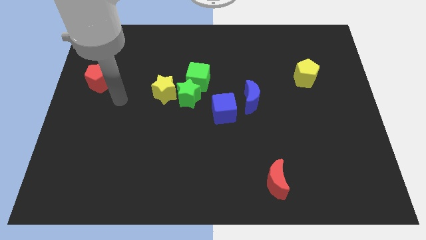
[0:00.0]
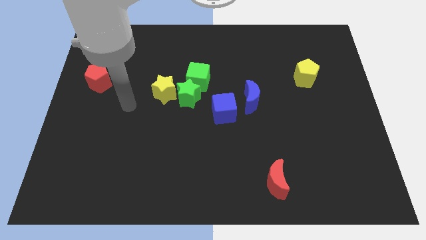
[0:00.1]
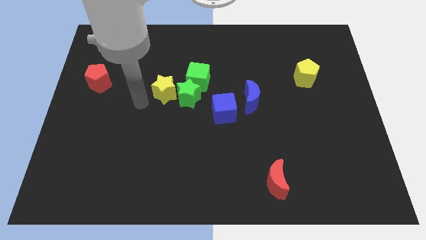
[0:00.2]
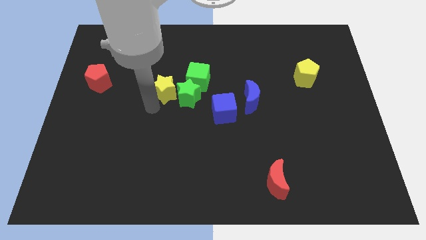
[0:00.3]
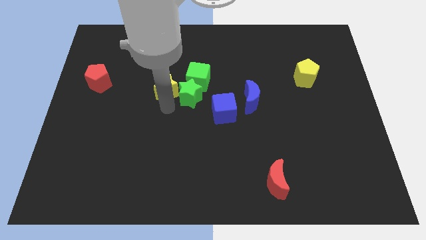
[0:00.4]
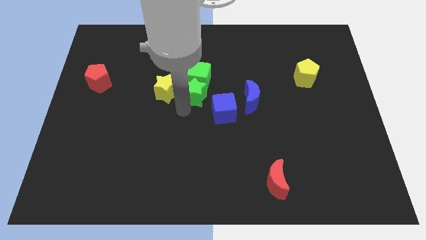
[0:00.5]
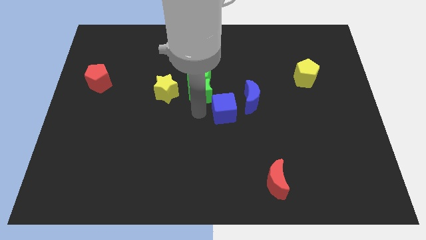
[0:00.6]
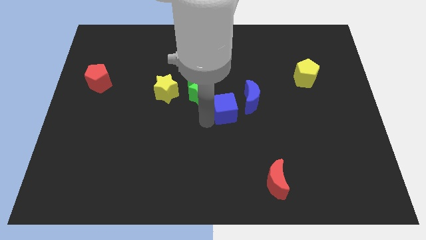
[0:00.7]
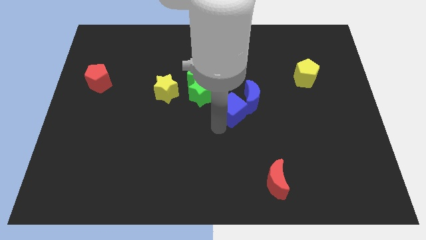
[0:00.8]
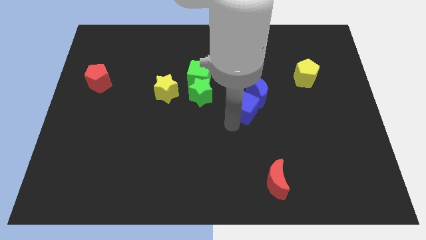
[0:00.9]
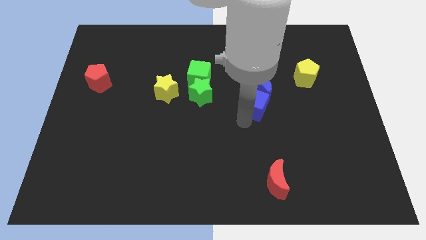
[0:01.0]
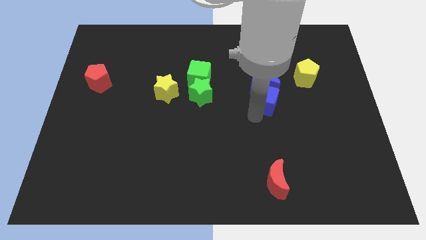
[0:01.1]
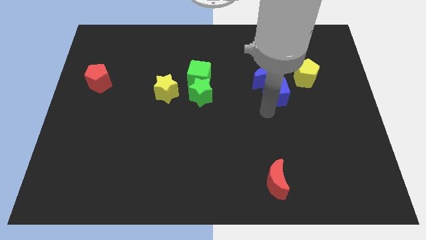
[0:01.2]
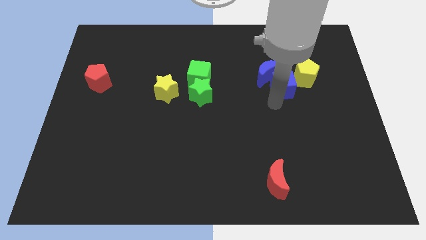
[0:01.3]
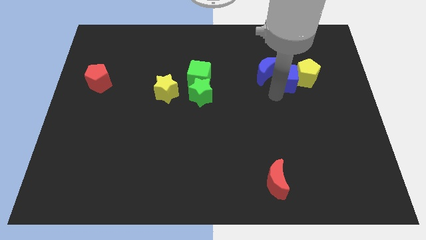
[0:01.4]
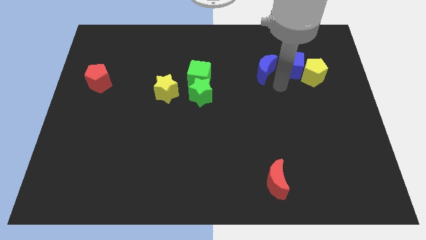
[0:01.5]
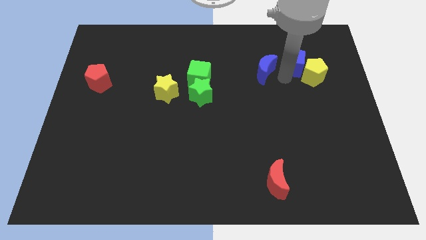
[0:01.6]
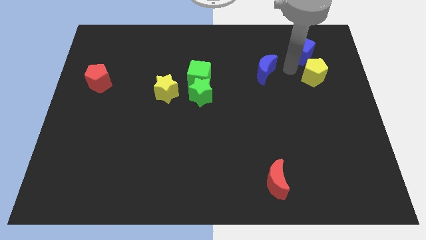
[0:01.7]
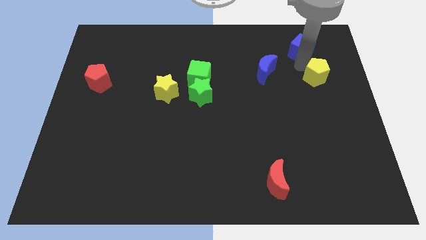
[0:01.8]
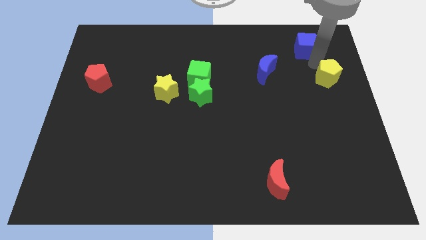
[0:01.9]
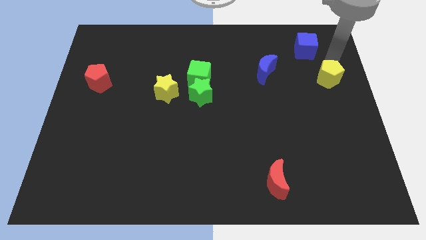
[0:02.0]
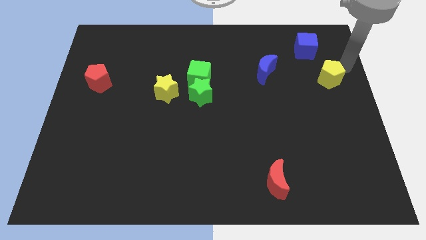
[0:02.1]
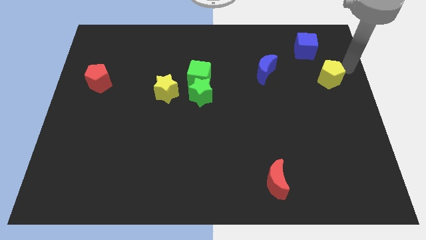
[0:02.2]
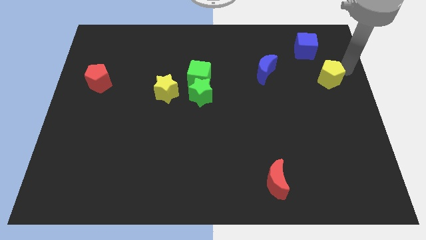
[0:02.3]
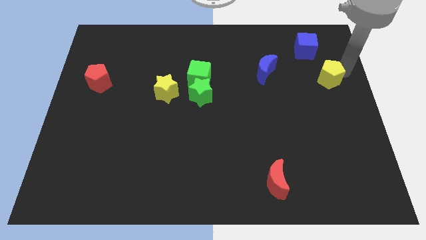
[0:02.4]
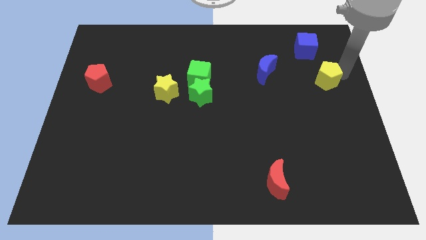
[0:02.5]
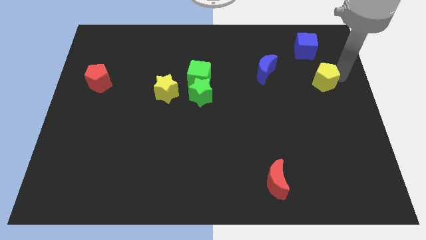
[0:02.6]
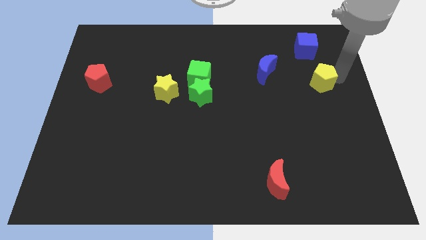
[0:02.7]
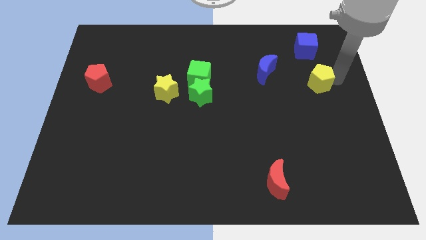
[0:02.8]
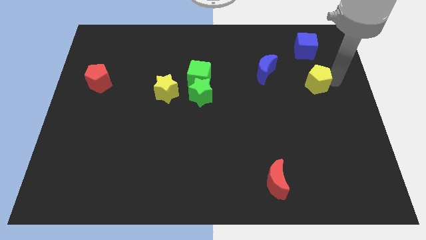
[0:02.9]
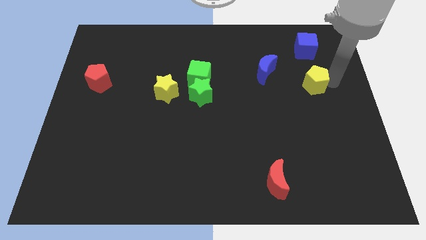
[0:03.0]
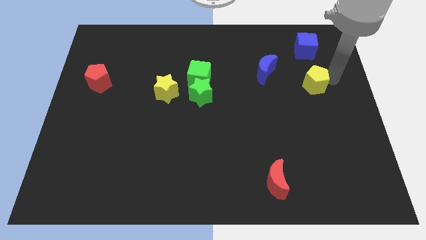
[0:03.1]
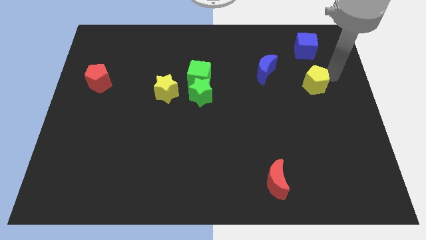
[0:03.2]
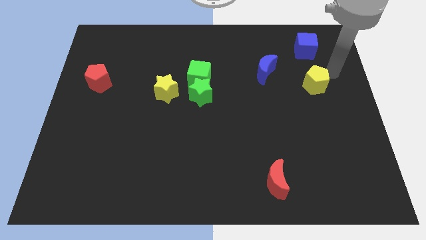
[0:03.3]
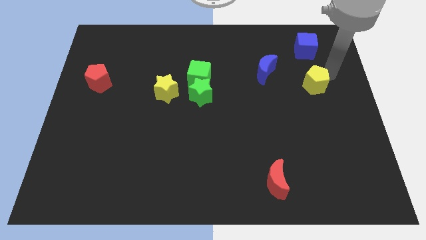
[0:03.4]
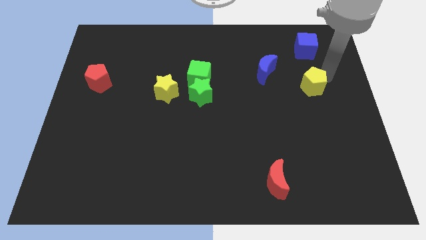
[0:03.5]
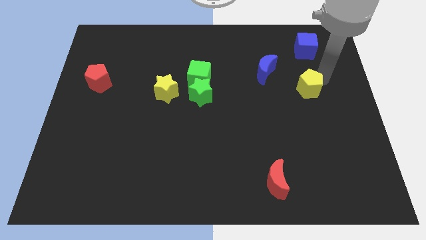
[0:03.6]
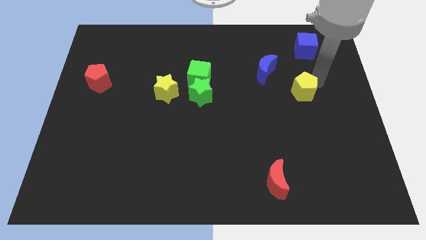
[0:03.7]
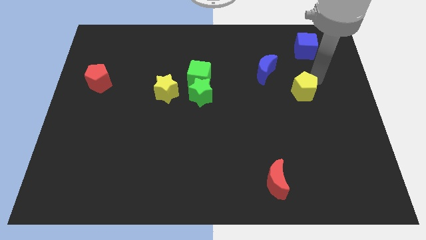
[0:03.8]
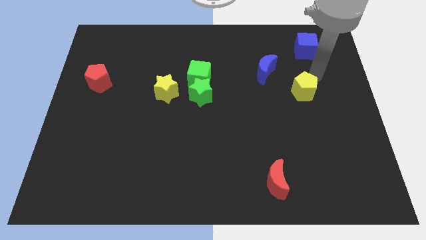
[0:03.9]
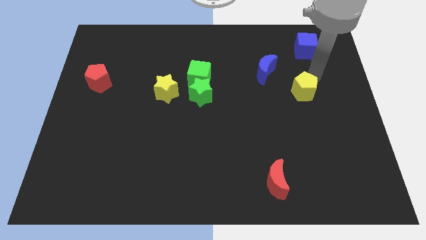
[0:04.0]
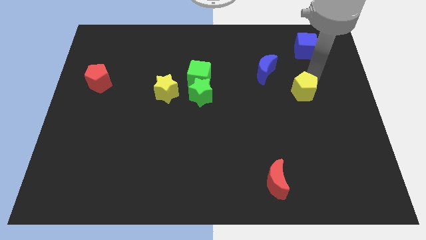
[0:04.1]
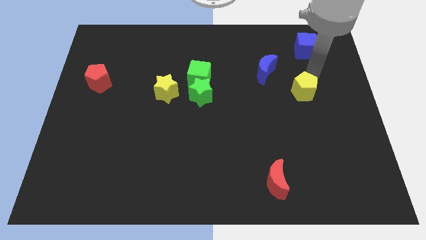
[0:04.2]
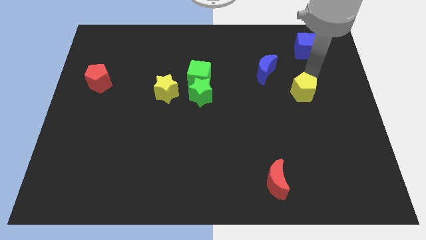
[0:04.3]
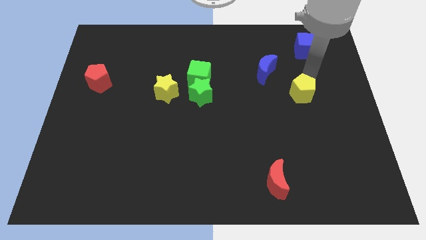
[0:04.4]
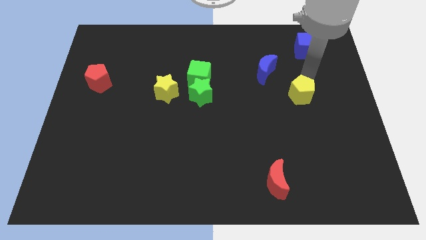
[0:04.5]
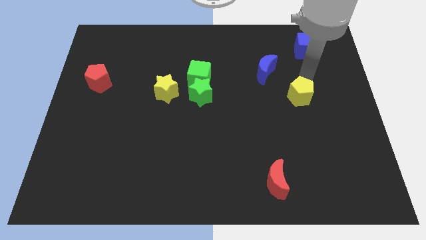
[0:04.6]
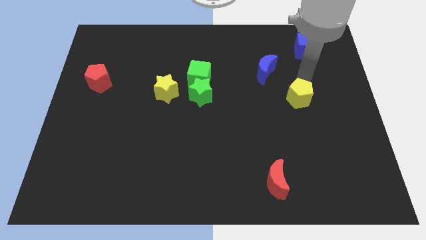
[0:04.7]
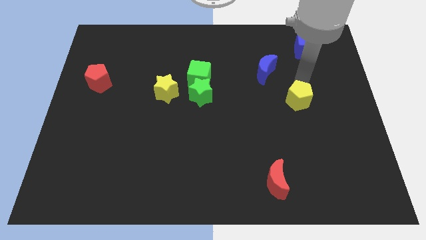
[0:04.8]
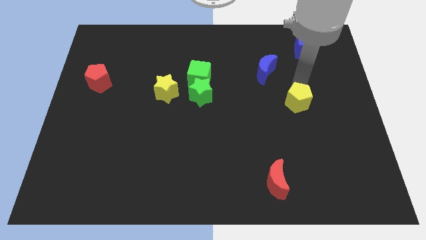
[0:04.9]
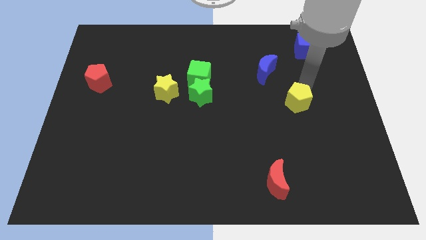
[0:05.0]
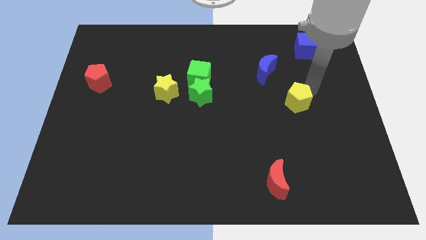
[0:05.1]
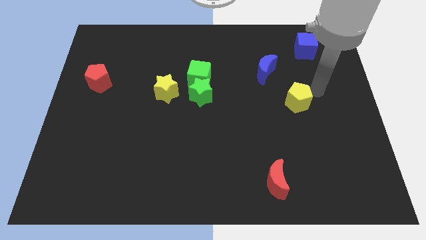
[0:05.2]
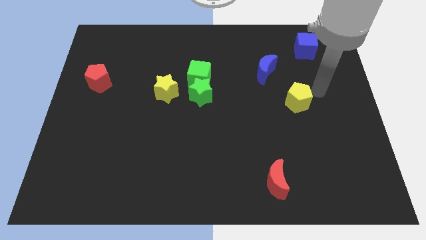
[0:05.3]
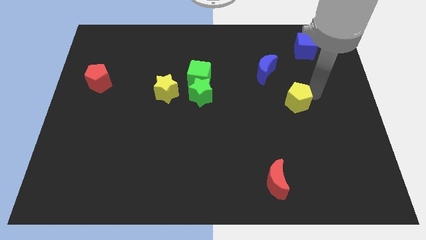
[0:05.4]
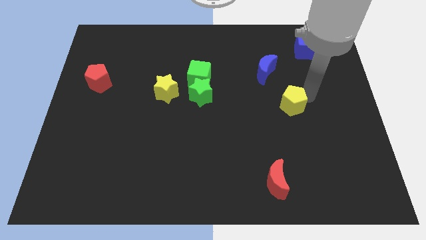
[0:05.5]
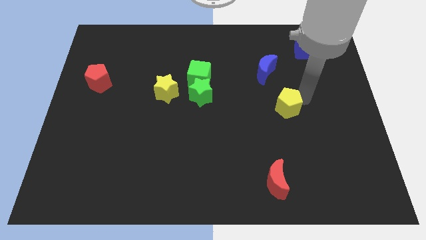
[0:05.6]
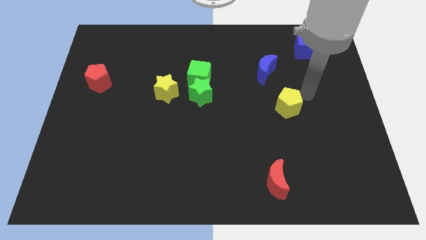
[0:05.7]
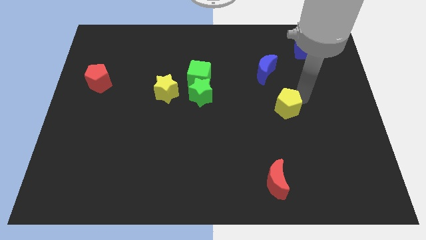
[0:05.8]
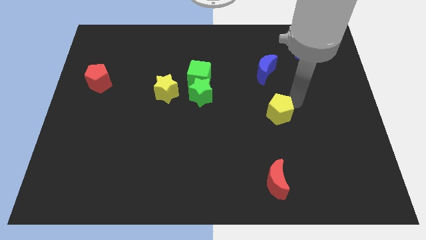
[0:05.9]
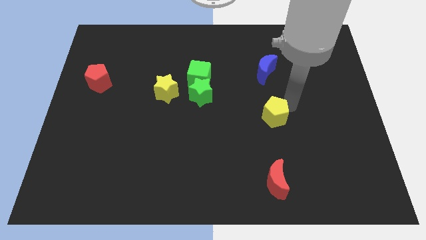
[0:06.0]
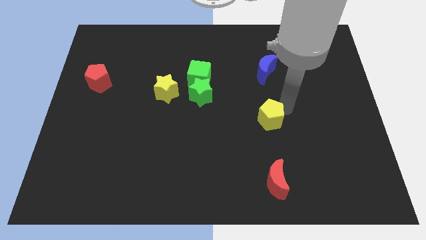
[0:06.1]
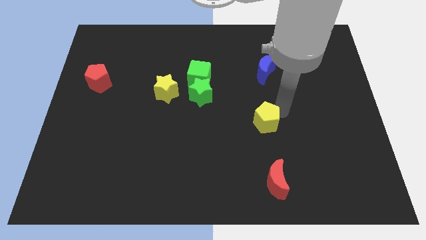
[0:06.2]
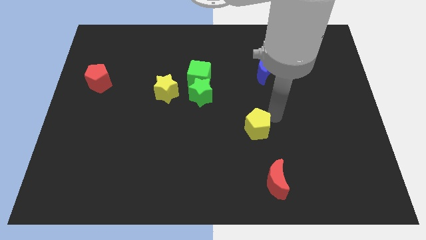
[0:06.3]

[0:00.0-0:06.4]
move the yellow pentagon down and then to the left

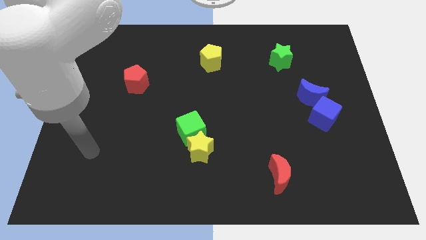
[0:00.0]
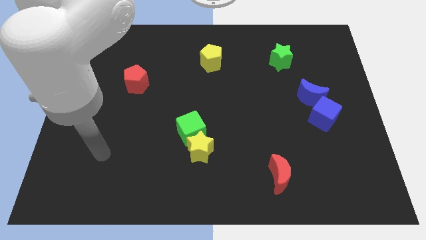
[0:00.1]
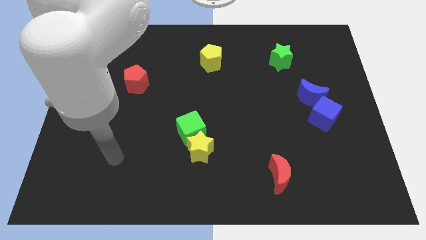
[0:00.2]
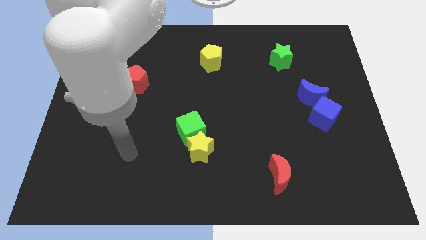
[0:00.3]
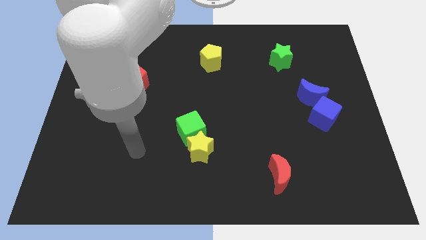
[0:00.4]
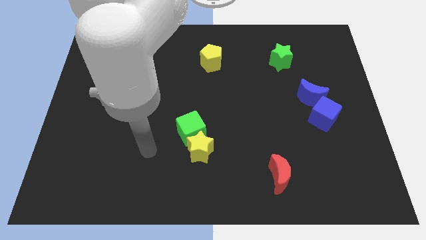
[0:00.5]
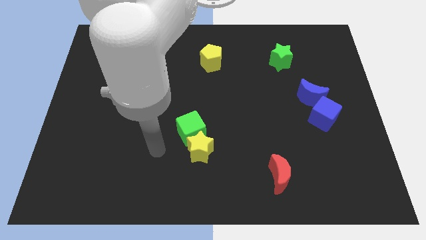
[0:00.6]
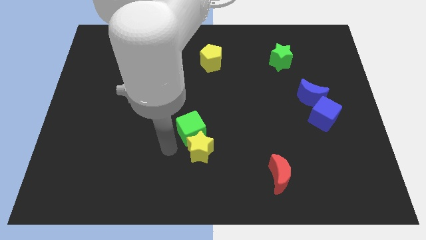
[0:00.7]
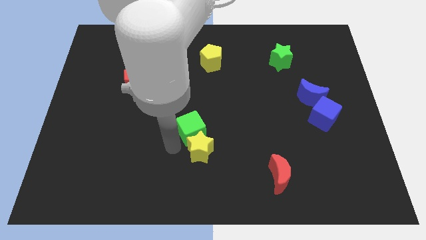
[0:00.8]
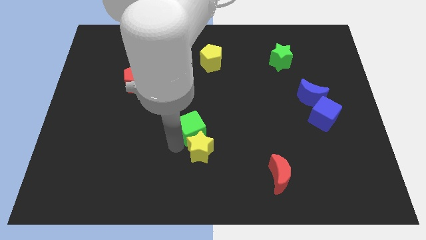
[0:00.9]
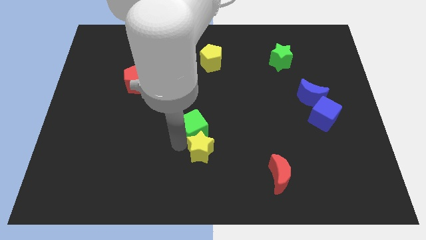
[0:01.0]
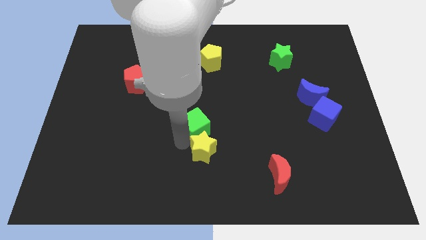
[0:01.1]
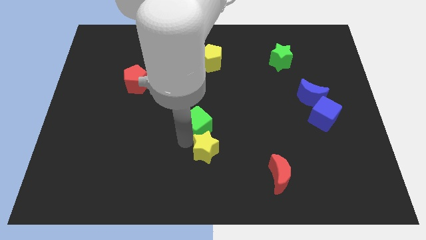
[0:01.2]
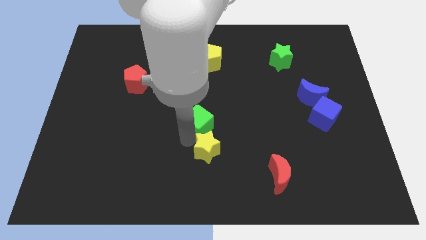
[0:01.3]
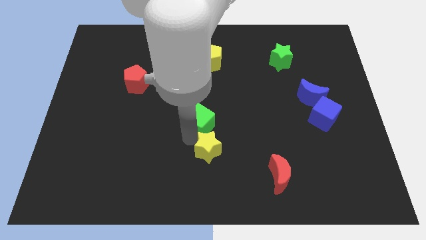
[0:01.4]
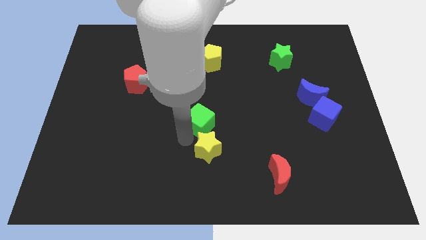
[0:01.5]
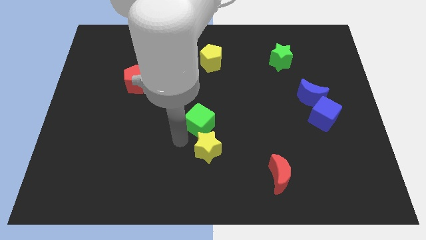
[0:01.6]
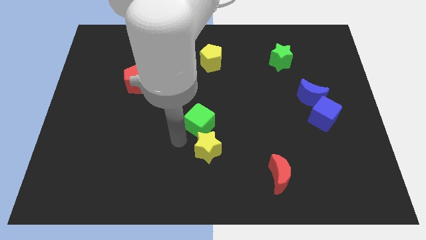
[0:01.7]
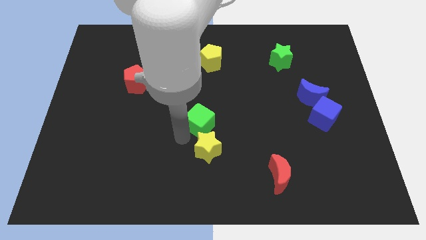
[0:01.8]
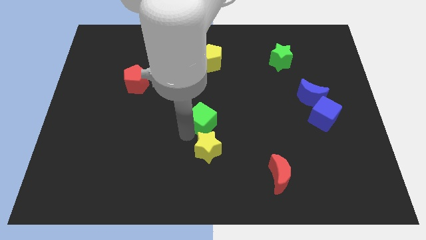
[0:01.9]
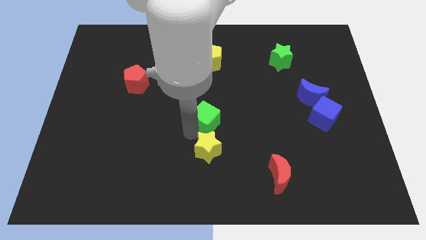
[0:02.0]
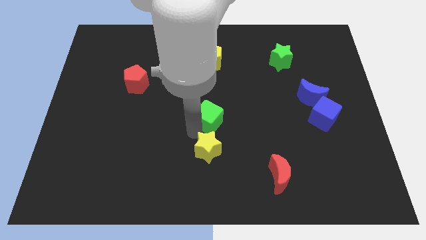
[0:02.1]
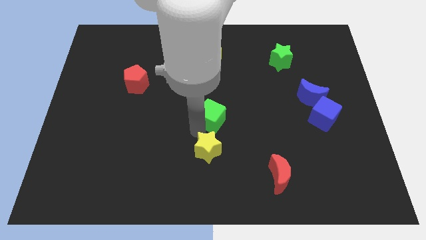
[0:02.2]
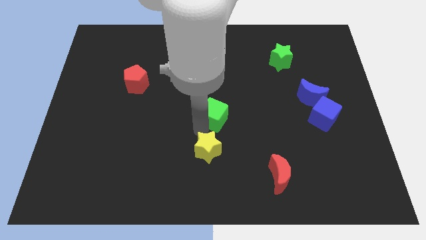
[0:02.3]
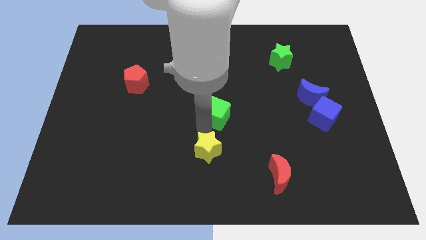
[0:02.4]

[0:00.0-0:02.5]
slightly push the green cube up and to the right diagonally
